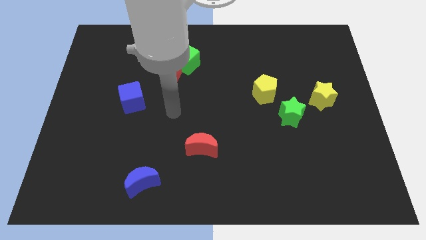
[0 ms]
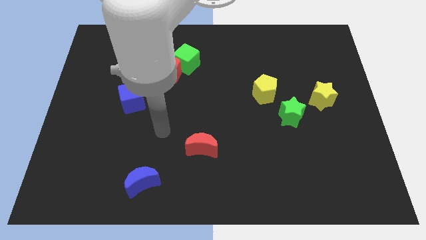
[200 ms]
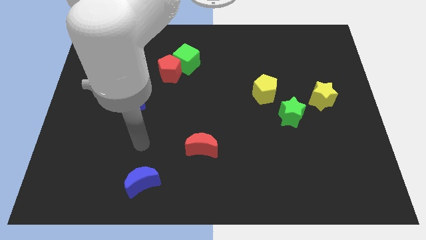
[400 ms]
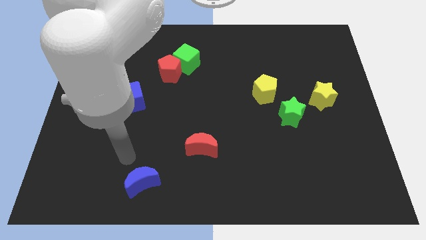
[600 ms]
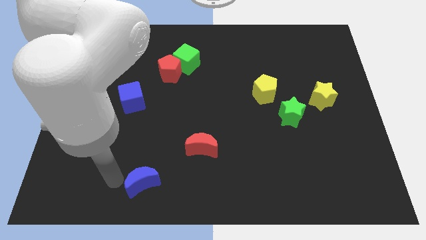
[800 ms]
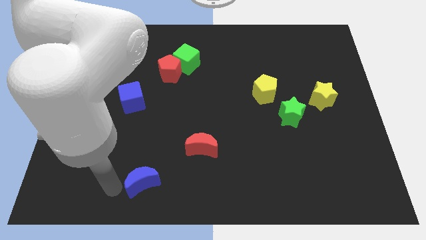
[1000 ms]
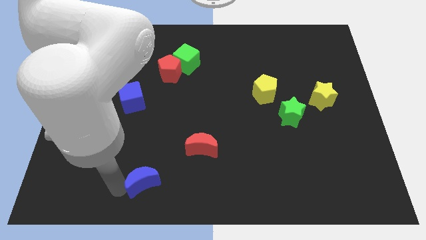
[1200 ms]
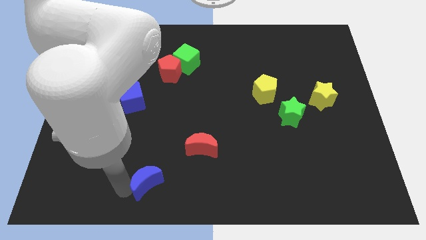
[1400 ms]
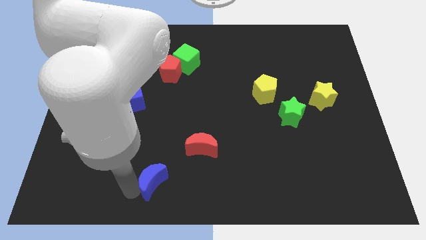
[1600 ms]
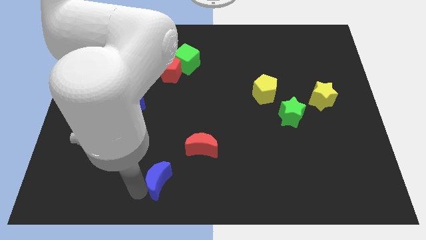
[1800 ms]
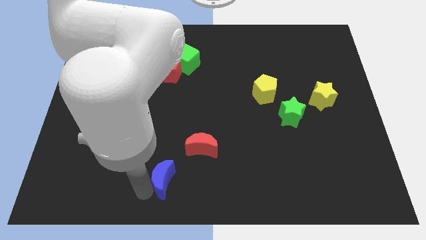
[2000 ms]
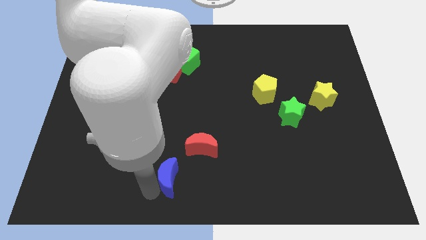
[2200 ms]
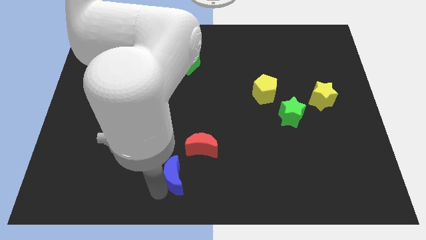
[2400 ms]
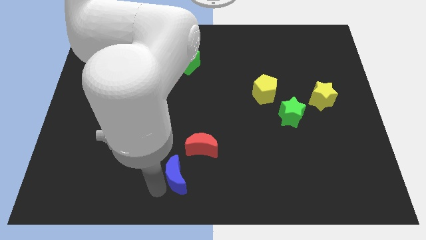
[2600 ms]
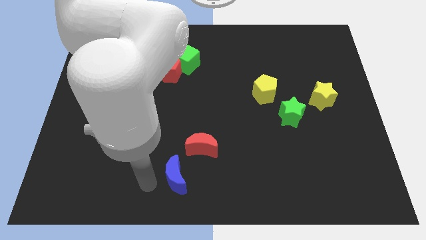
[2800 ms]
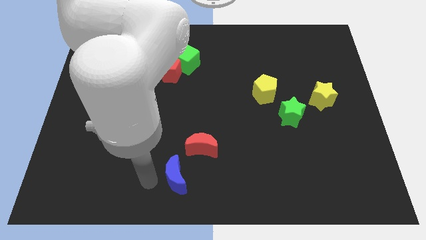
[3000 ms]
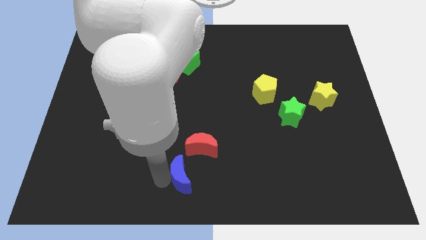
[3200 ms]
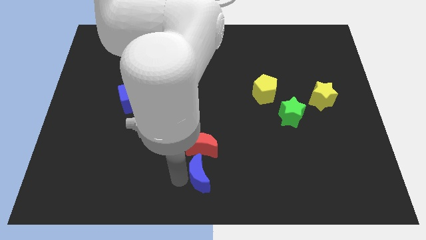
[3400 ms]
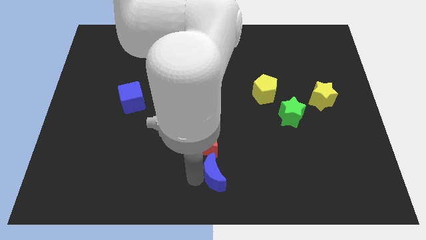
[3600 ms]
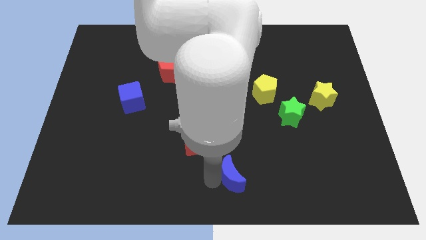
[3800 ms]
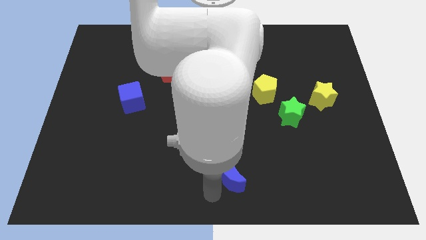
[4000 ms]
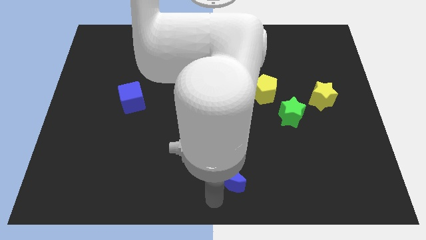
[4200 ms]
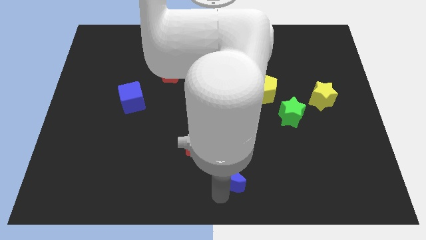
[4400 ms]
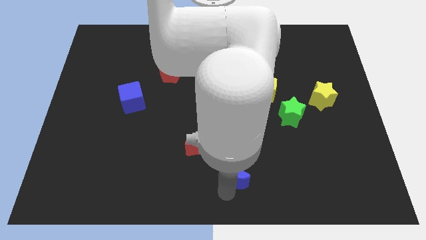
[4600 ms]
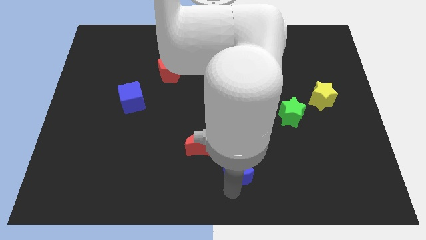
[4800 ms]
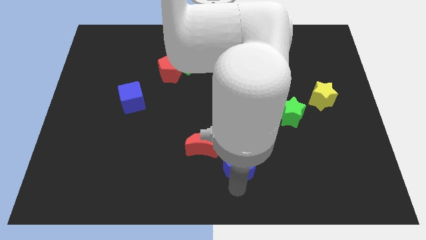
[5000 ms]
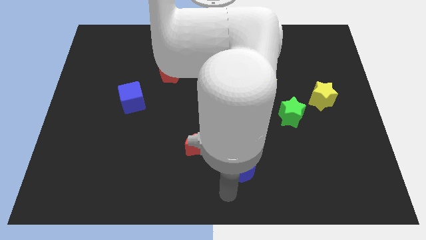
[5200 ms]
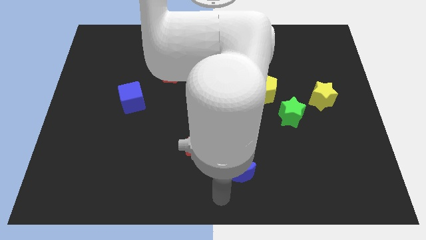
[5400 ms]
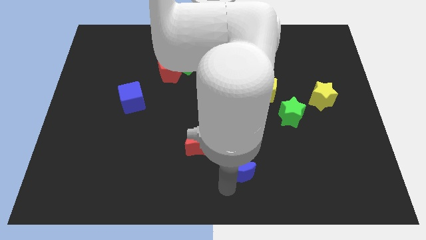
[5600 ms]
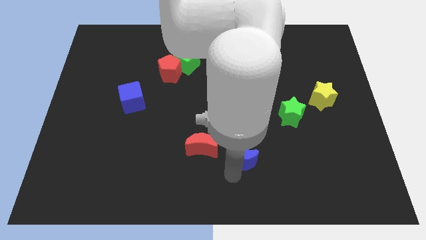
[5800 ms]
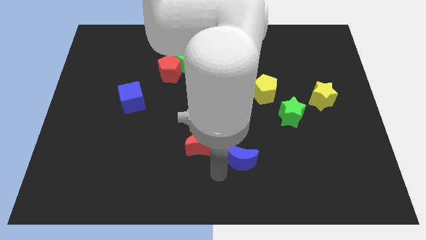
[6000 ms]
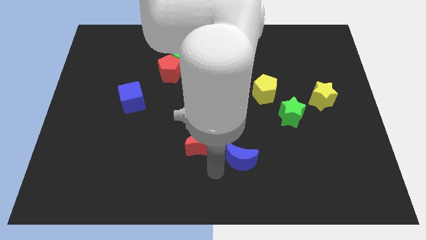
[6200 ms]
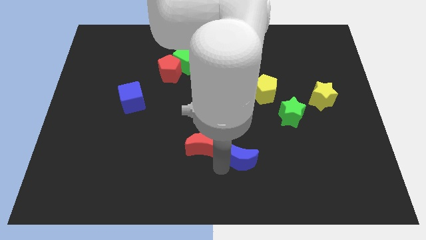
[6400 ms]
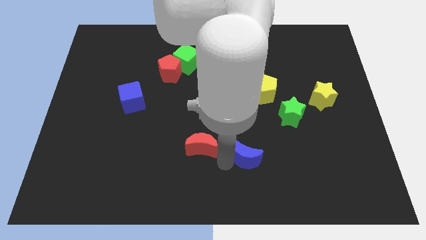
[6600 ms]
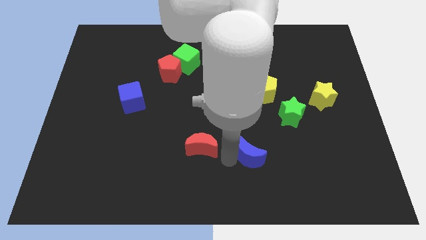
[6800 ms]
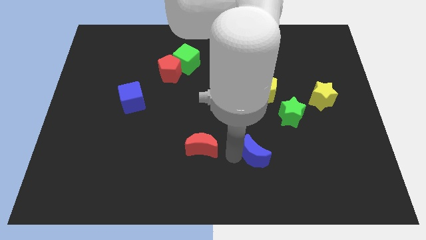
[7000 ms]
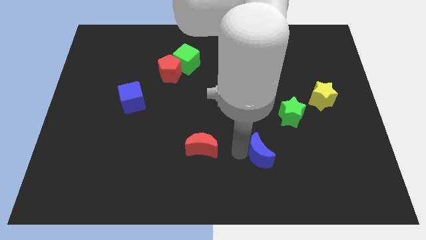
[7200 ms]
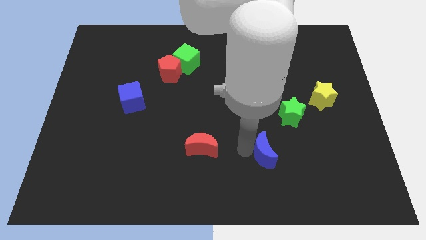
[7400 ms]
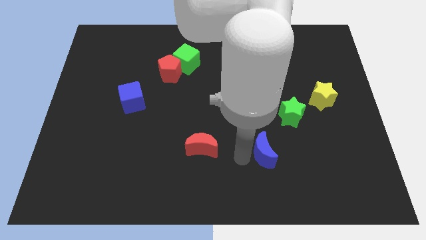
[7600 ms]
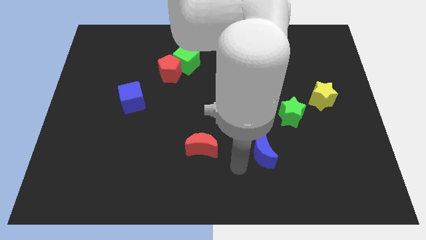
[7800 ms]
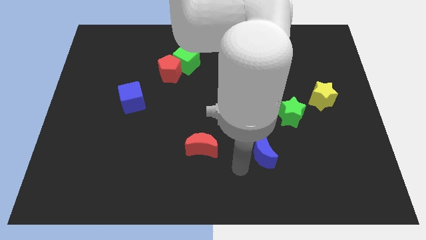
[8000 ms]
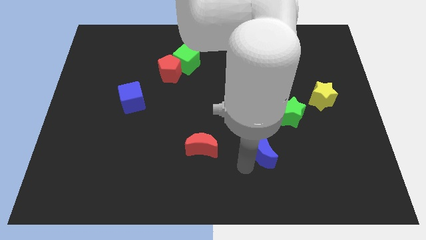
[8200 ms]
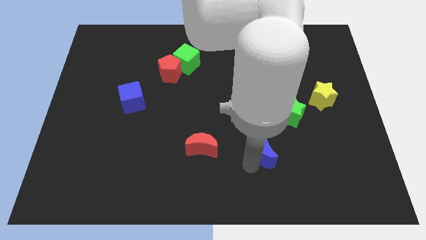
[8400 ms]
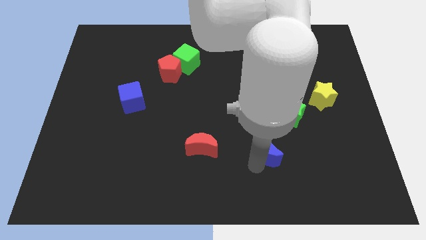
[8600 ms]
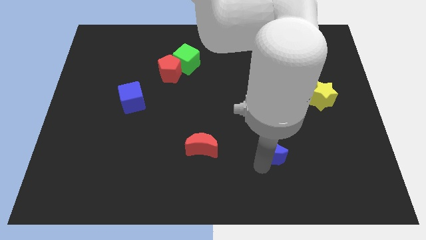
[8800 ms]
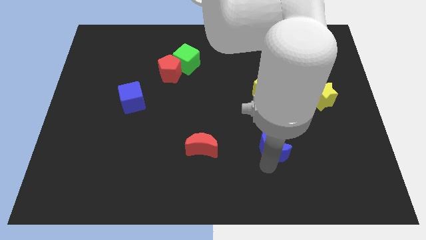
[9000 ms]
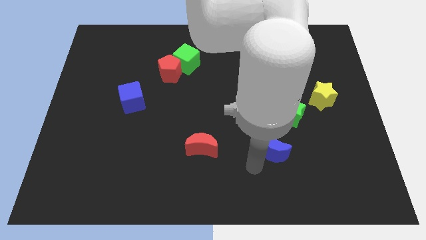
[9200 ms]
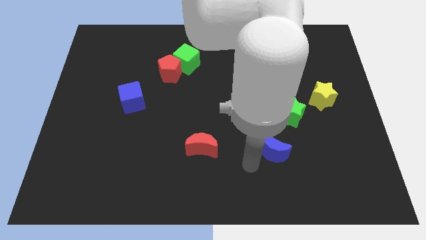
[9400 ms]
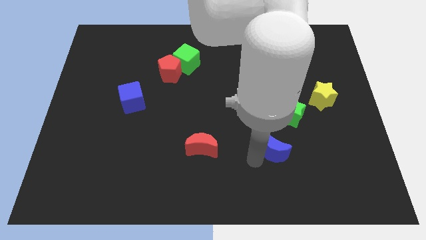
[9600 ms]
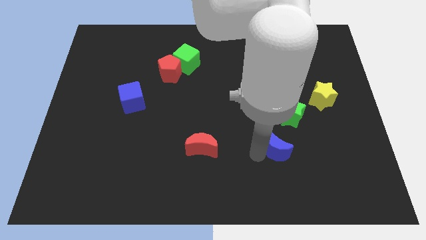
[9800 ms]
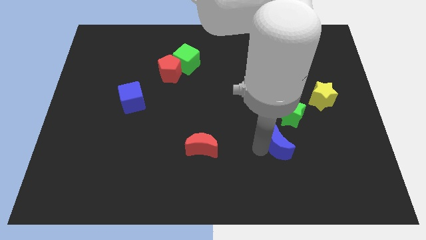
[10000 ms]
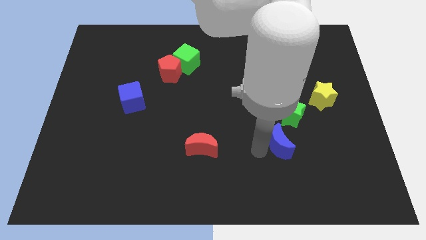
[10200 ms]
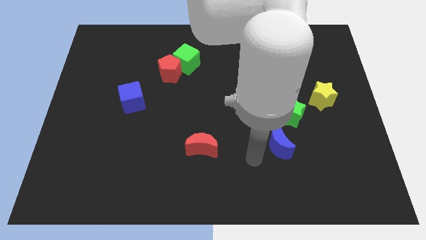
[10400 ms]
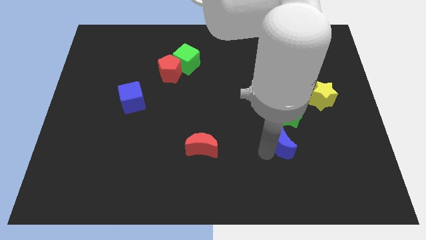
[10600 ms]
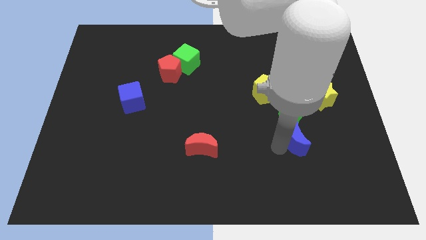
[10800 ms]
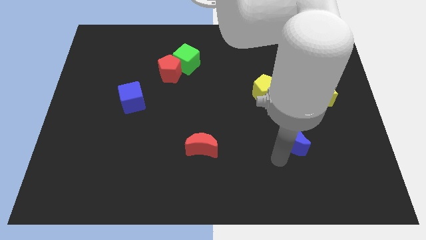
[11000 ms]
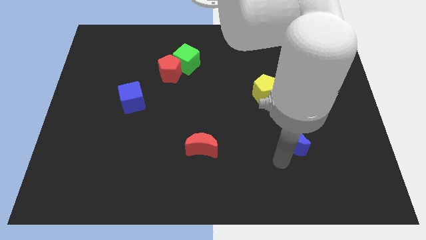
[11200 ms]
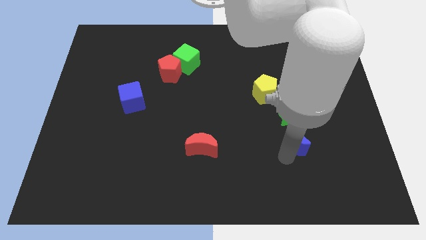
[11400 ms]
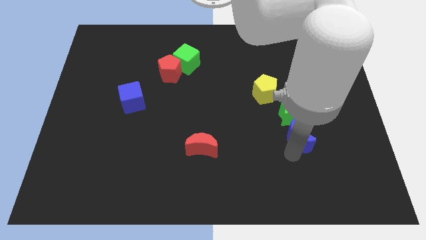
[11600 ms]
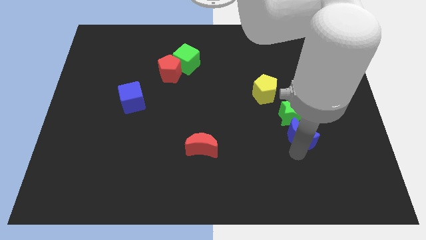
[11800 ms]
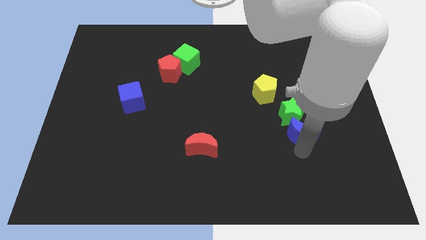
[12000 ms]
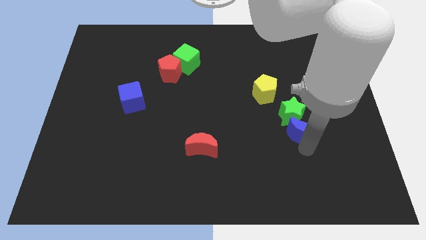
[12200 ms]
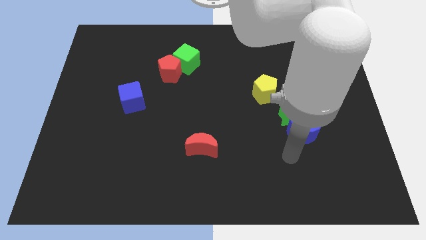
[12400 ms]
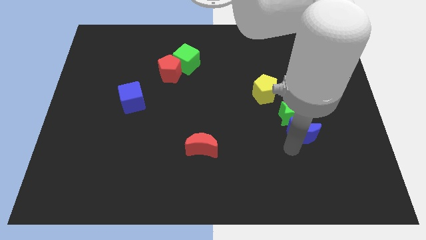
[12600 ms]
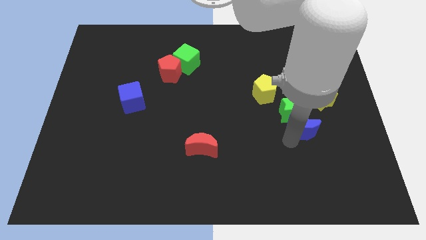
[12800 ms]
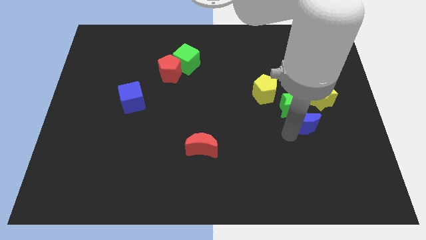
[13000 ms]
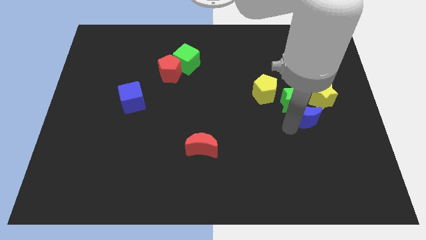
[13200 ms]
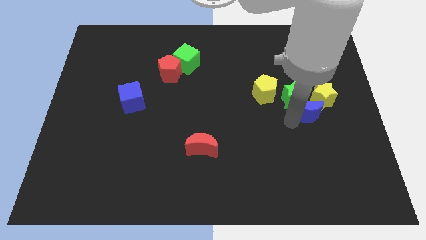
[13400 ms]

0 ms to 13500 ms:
put the blue moon close to the yellow star

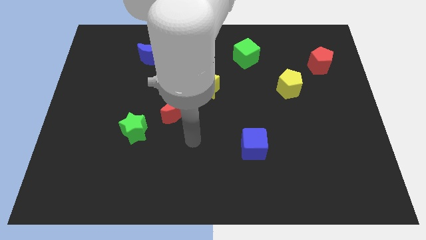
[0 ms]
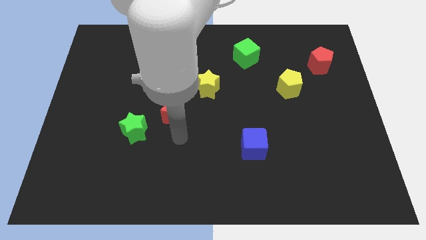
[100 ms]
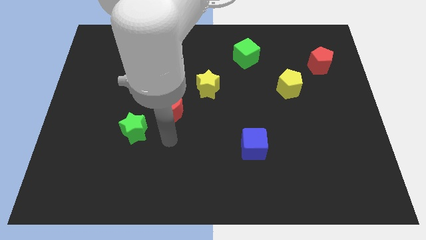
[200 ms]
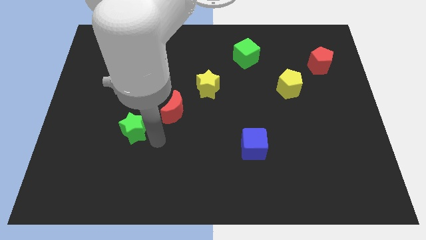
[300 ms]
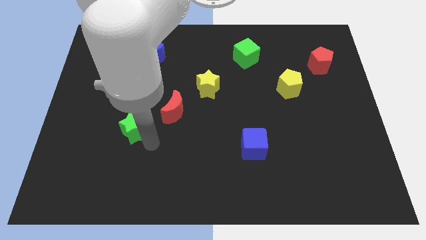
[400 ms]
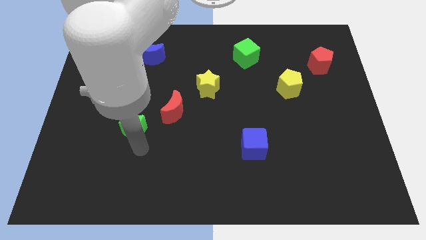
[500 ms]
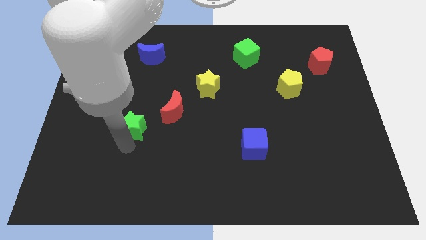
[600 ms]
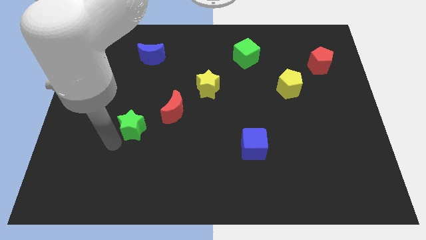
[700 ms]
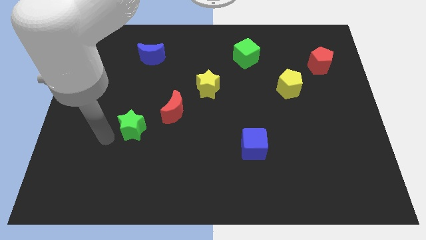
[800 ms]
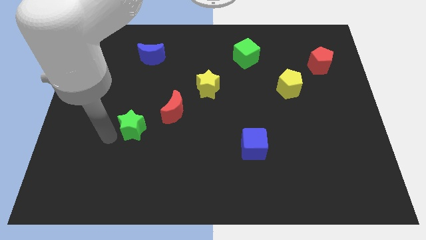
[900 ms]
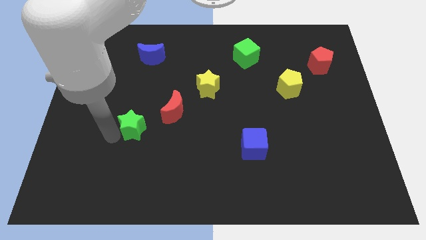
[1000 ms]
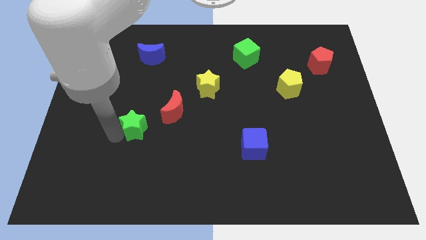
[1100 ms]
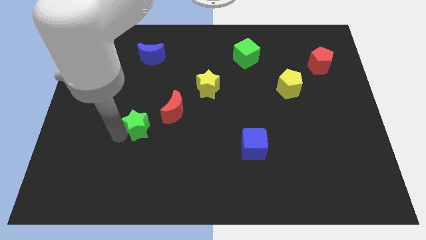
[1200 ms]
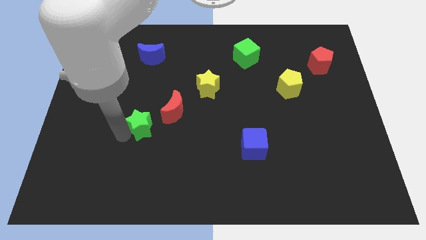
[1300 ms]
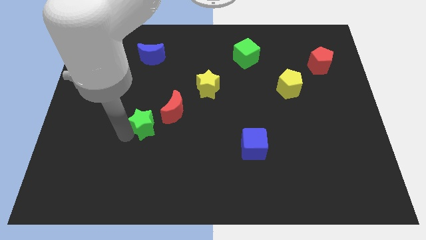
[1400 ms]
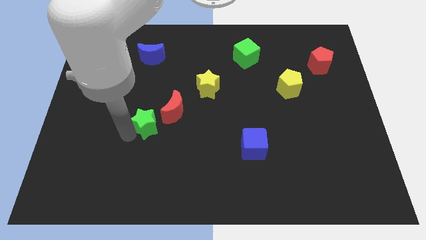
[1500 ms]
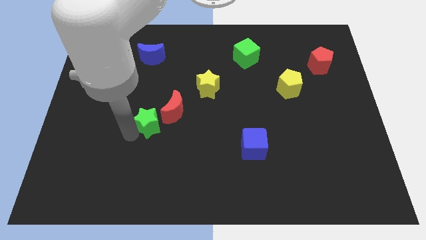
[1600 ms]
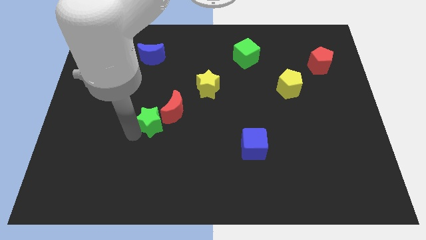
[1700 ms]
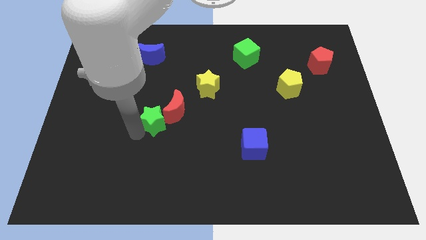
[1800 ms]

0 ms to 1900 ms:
move the green star close to the red moon
